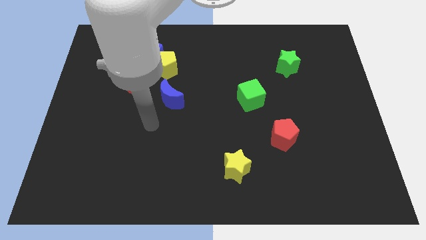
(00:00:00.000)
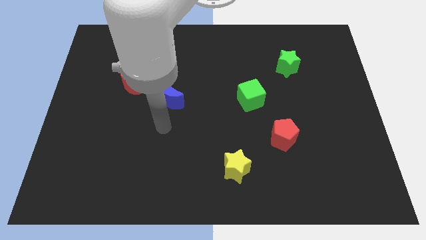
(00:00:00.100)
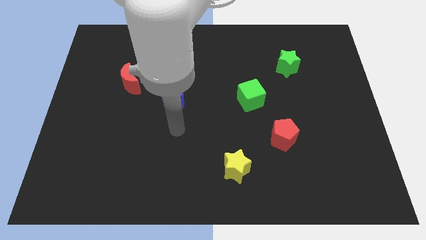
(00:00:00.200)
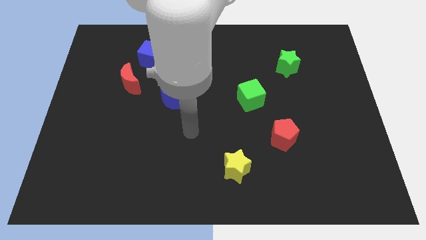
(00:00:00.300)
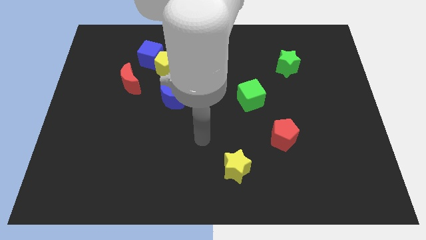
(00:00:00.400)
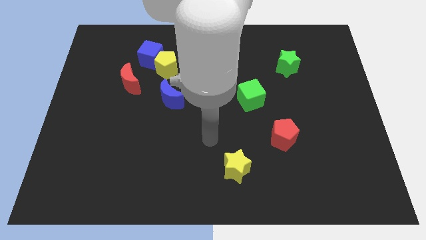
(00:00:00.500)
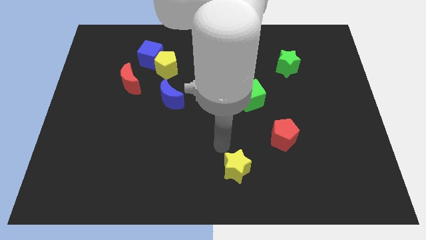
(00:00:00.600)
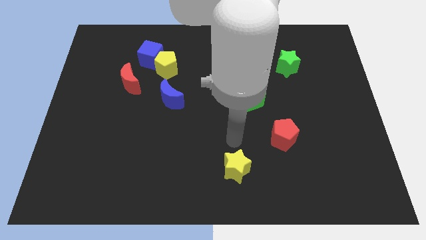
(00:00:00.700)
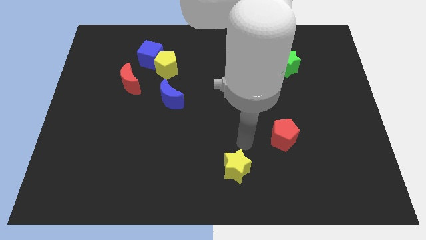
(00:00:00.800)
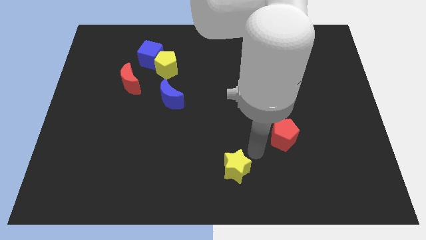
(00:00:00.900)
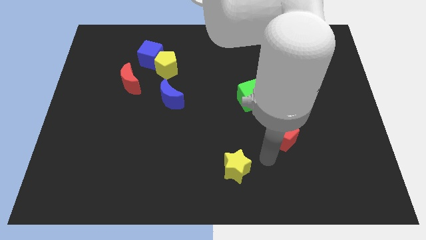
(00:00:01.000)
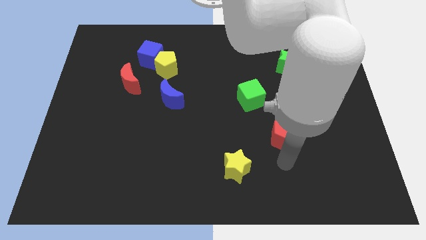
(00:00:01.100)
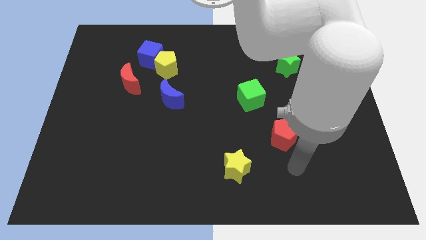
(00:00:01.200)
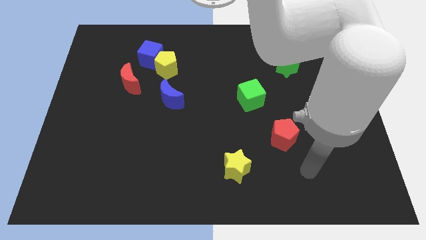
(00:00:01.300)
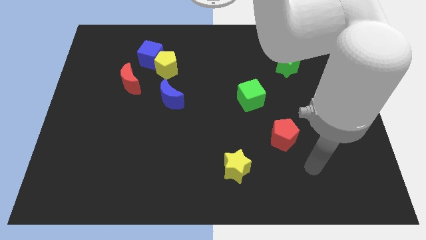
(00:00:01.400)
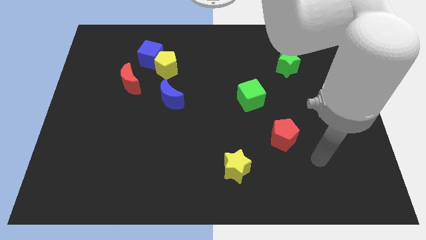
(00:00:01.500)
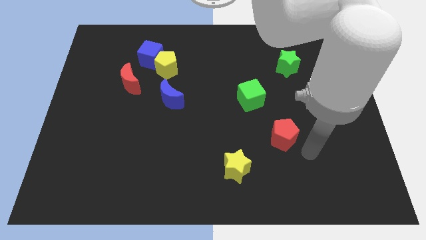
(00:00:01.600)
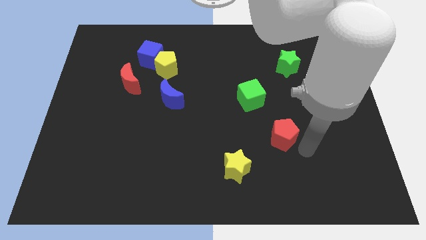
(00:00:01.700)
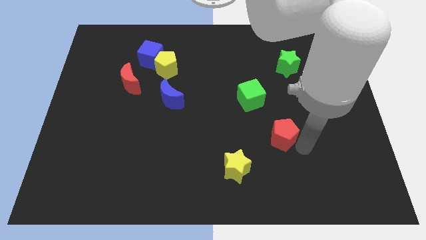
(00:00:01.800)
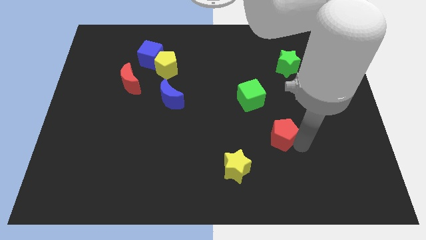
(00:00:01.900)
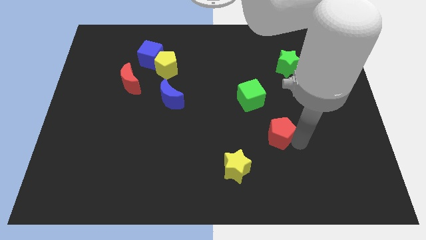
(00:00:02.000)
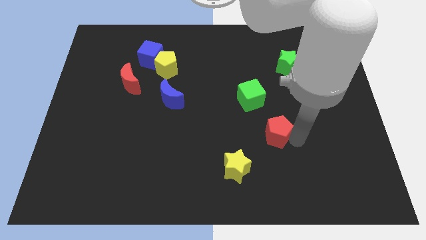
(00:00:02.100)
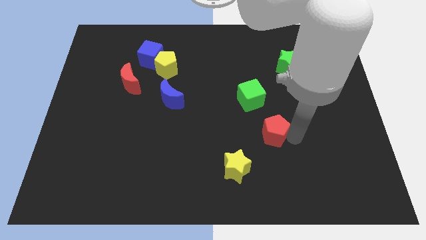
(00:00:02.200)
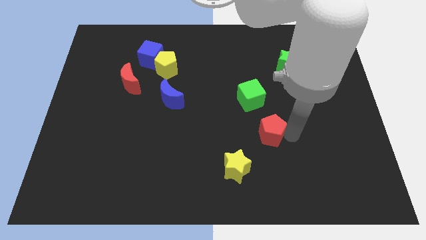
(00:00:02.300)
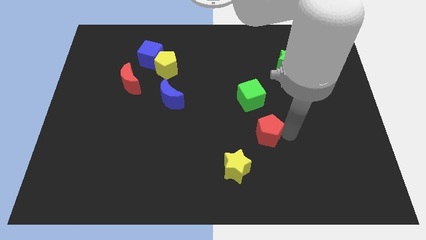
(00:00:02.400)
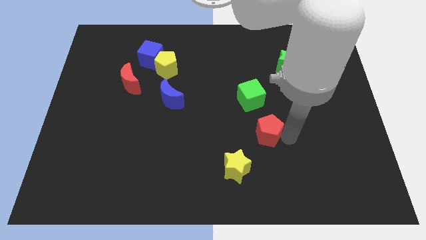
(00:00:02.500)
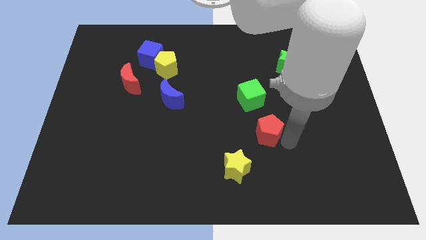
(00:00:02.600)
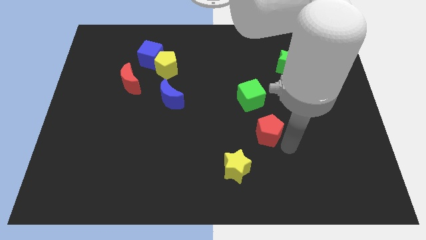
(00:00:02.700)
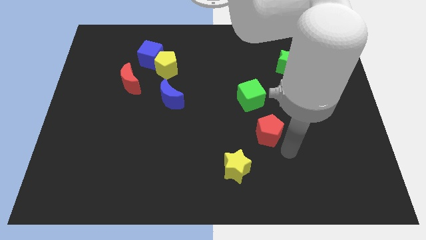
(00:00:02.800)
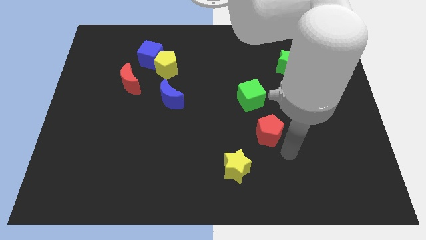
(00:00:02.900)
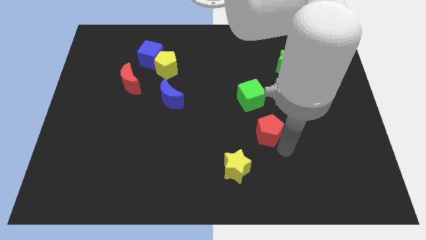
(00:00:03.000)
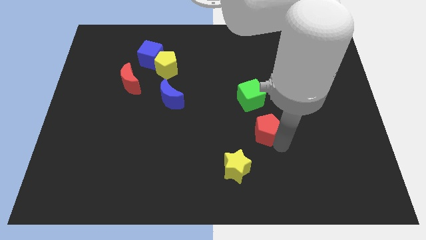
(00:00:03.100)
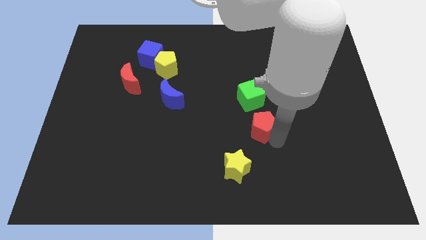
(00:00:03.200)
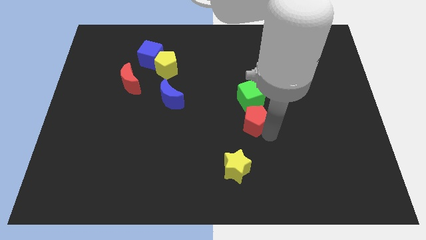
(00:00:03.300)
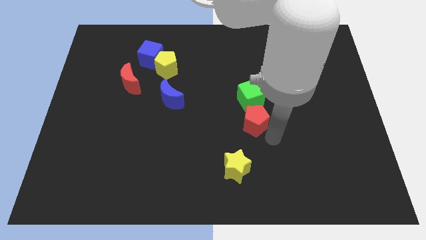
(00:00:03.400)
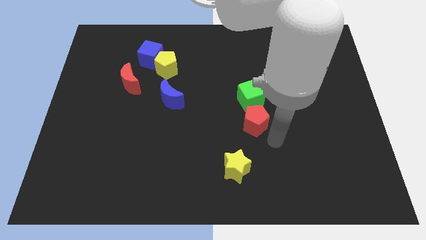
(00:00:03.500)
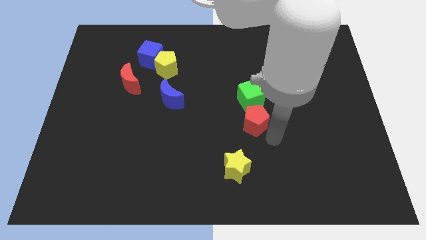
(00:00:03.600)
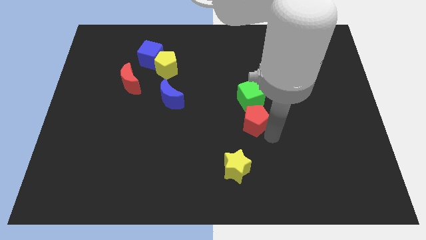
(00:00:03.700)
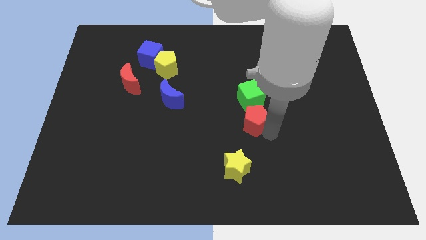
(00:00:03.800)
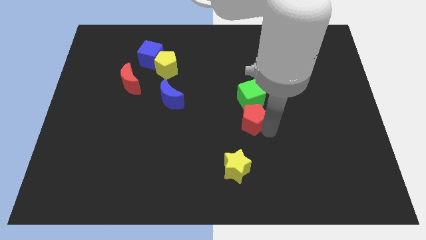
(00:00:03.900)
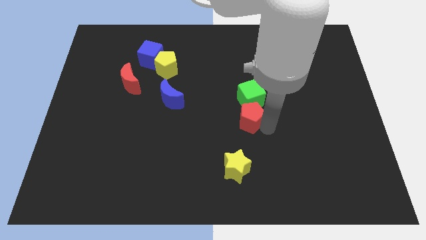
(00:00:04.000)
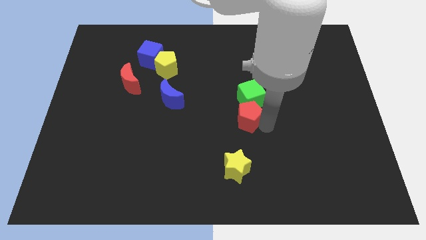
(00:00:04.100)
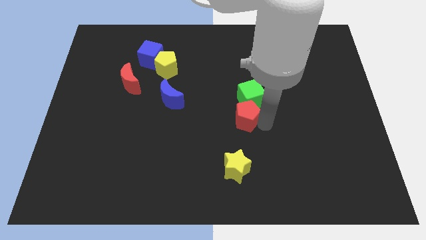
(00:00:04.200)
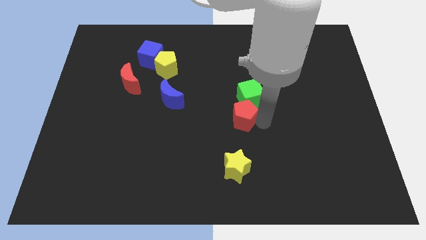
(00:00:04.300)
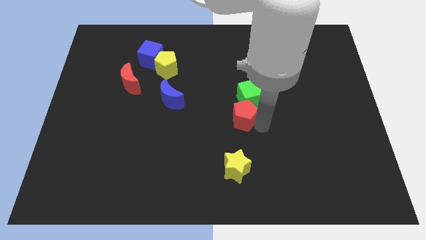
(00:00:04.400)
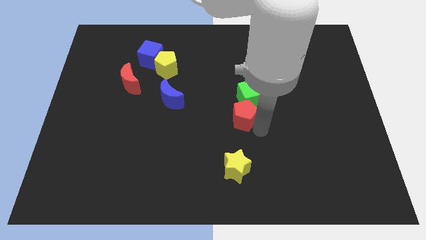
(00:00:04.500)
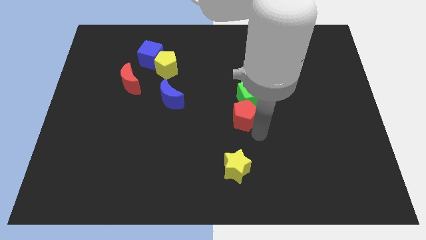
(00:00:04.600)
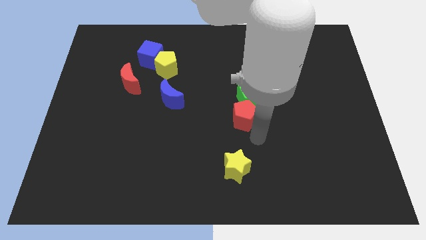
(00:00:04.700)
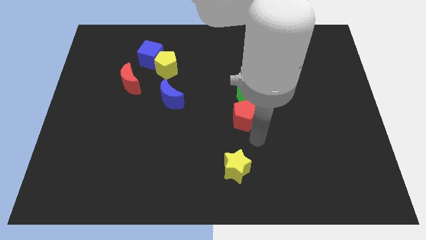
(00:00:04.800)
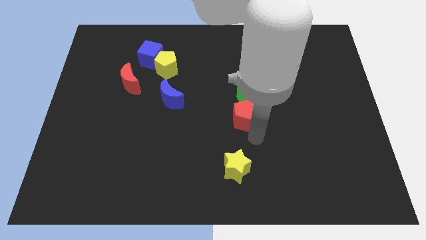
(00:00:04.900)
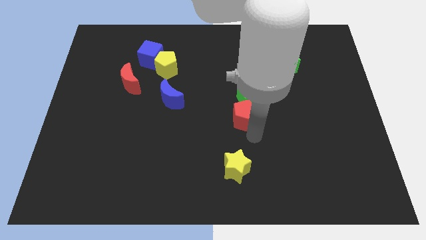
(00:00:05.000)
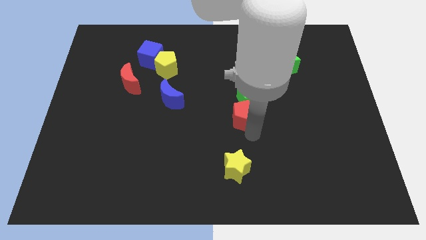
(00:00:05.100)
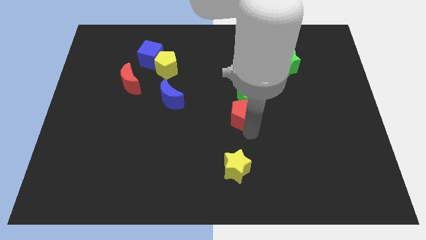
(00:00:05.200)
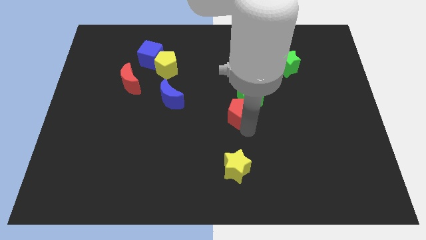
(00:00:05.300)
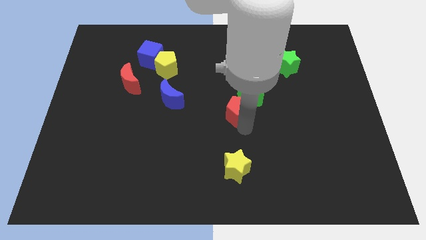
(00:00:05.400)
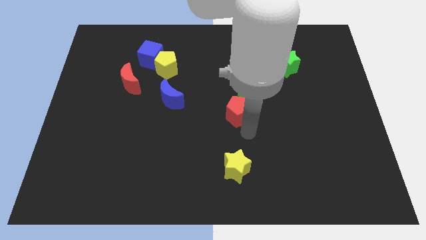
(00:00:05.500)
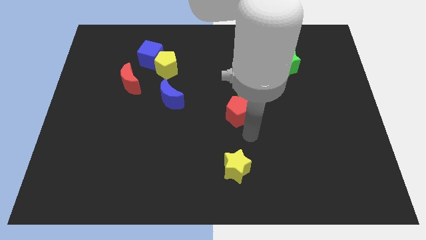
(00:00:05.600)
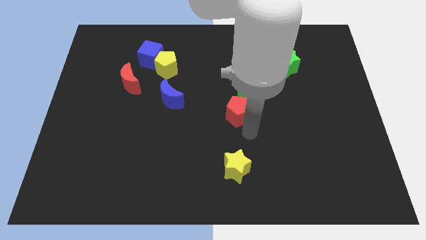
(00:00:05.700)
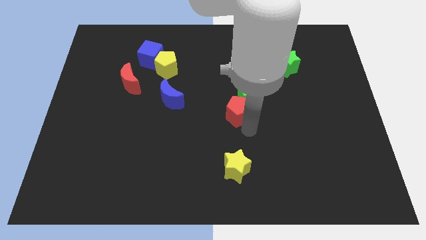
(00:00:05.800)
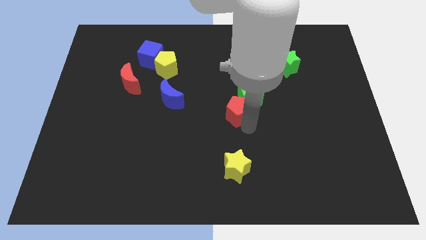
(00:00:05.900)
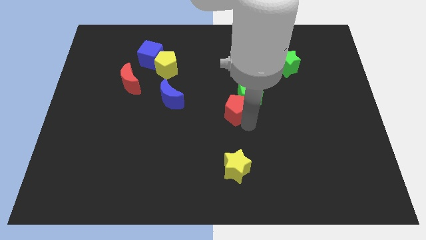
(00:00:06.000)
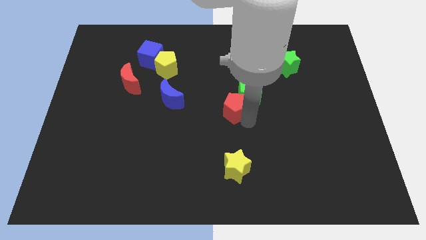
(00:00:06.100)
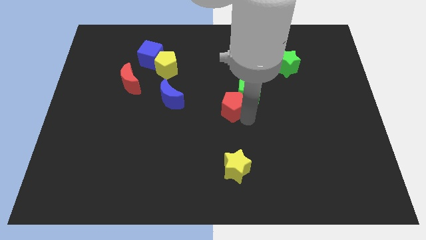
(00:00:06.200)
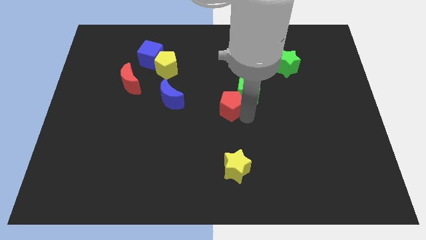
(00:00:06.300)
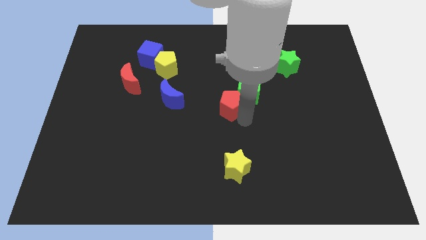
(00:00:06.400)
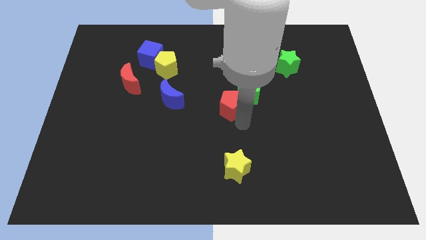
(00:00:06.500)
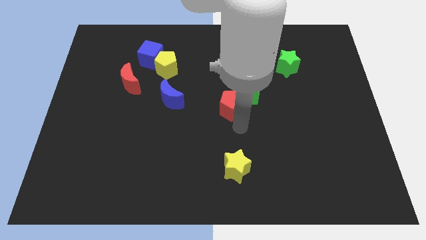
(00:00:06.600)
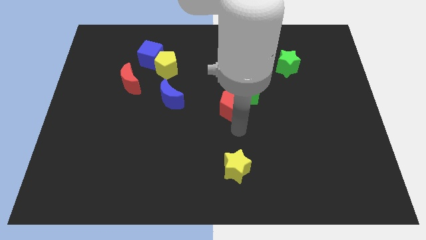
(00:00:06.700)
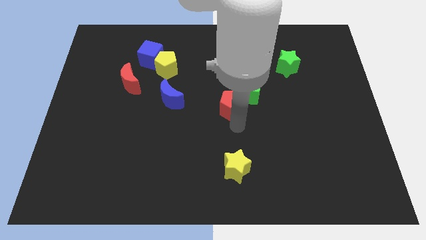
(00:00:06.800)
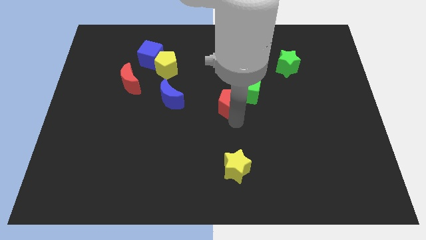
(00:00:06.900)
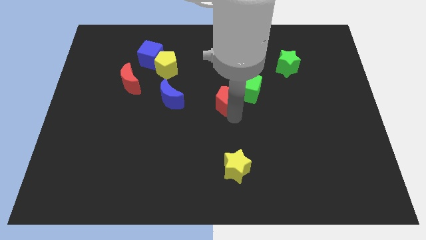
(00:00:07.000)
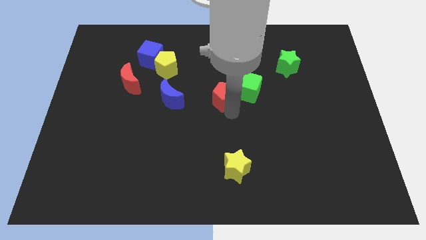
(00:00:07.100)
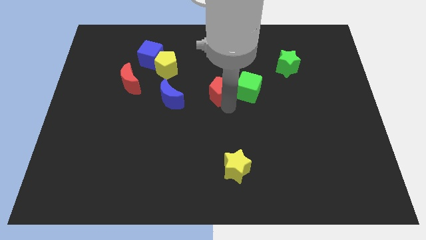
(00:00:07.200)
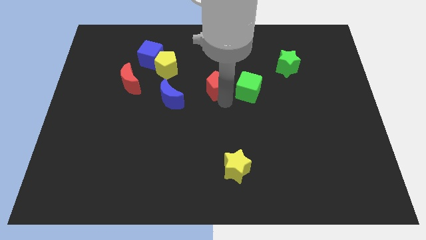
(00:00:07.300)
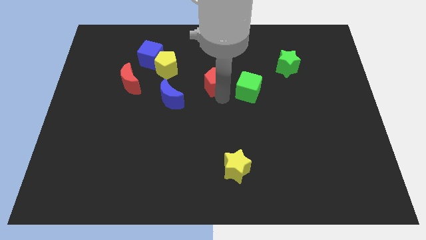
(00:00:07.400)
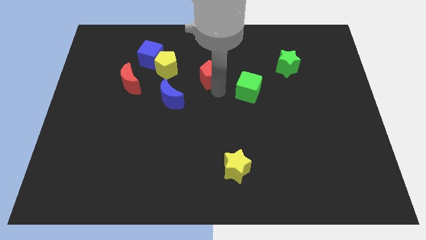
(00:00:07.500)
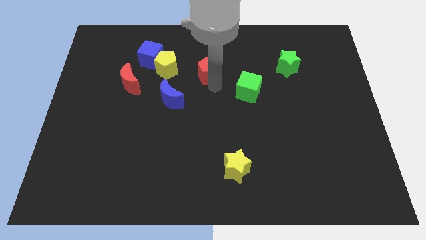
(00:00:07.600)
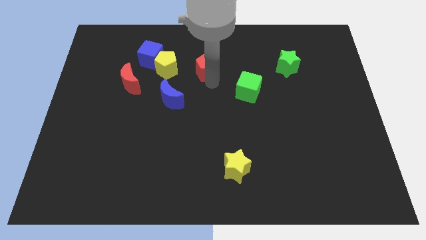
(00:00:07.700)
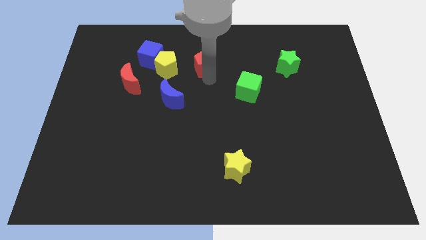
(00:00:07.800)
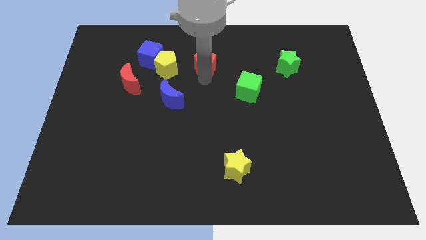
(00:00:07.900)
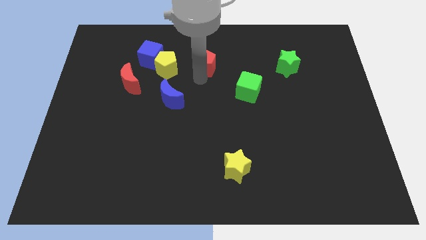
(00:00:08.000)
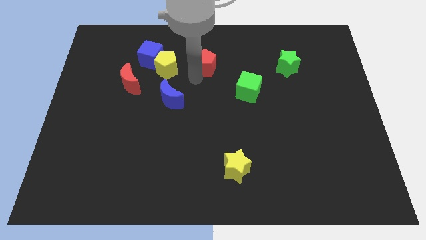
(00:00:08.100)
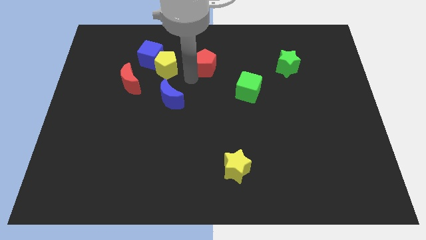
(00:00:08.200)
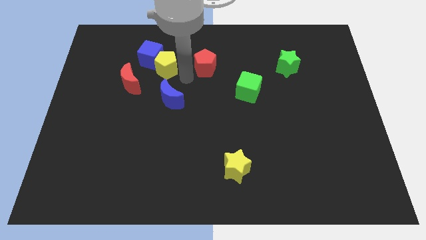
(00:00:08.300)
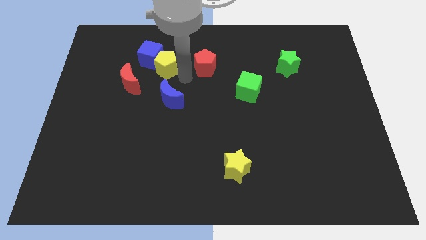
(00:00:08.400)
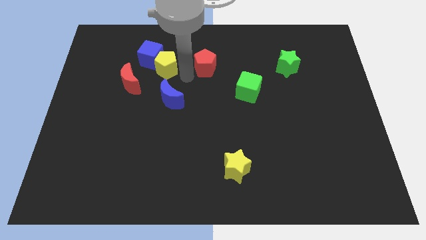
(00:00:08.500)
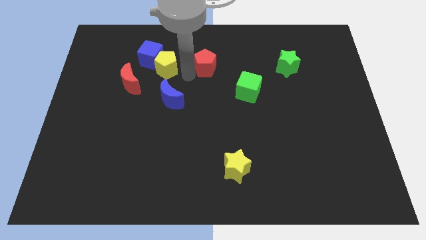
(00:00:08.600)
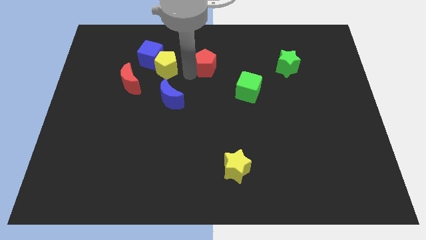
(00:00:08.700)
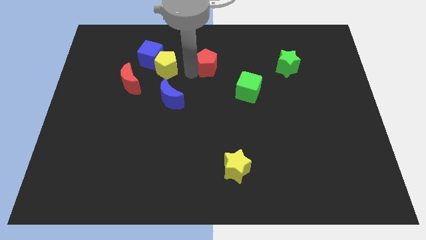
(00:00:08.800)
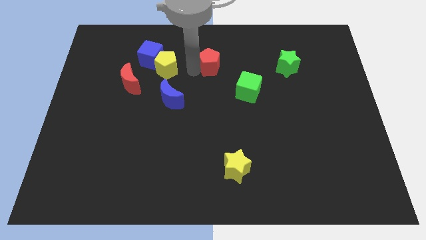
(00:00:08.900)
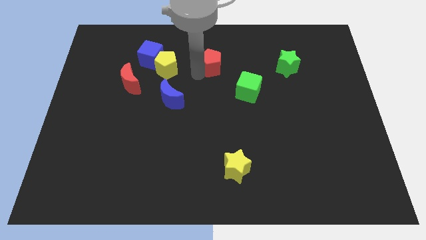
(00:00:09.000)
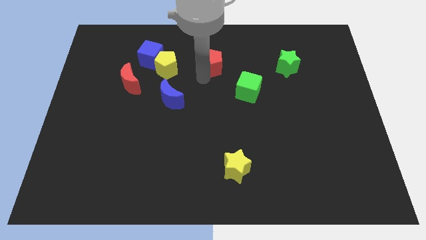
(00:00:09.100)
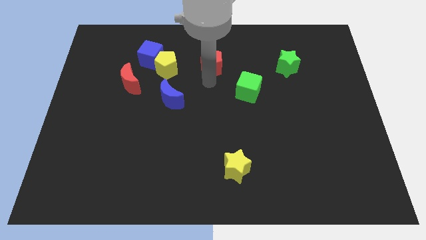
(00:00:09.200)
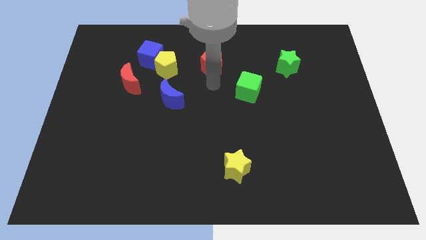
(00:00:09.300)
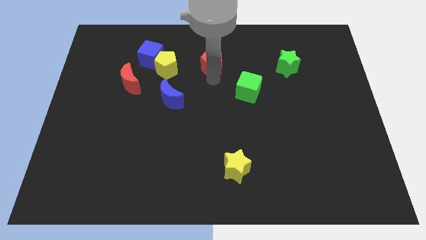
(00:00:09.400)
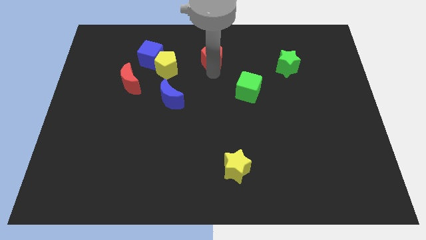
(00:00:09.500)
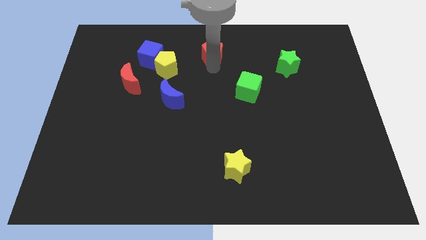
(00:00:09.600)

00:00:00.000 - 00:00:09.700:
push the red pentagon to the top
